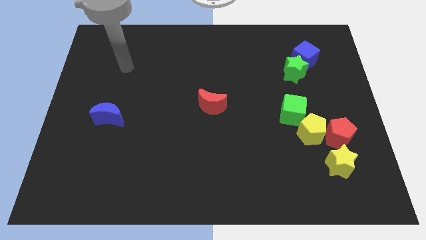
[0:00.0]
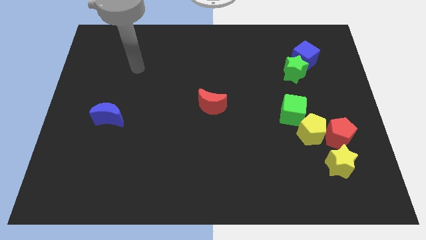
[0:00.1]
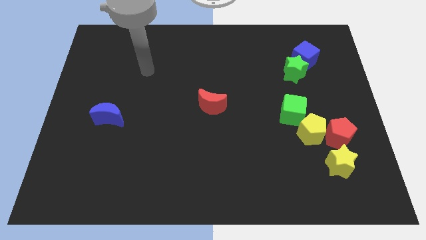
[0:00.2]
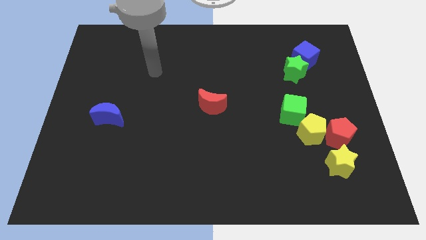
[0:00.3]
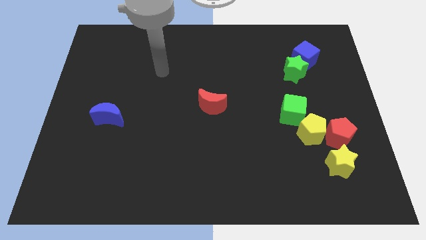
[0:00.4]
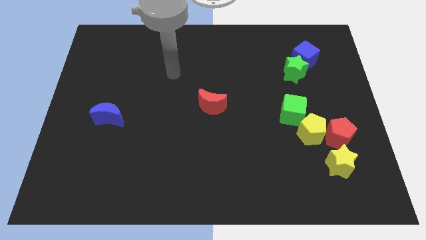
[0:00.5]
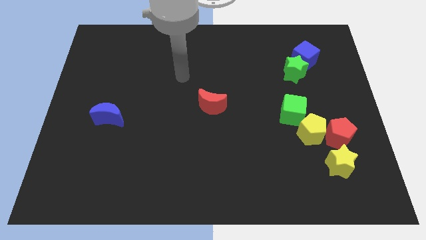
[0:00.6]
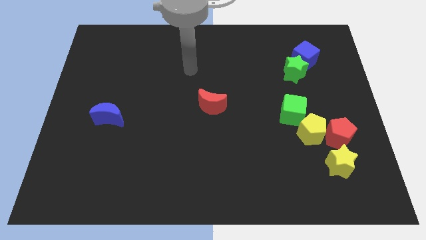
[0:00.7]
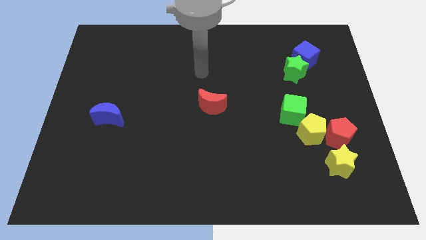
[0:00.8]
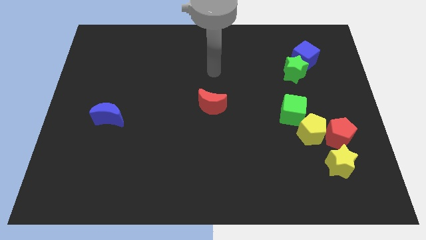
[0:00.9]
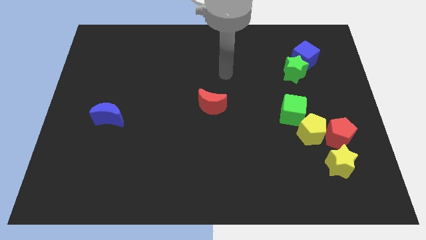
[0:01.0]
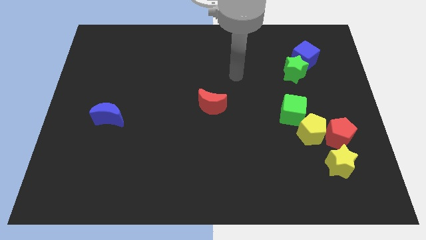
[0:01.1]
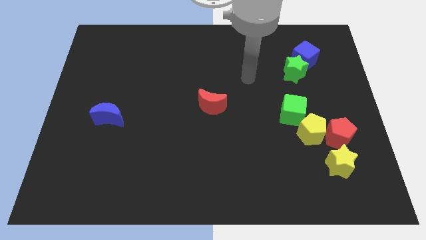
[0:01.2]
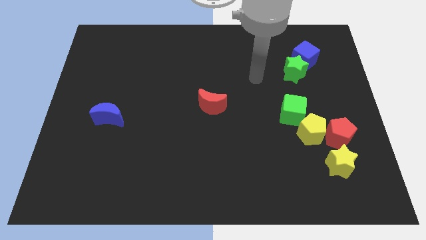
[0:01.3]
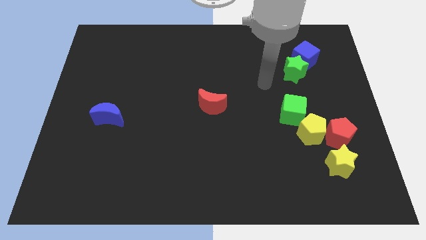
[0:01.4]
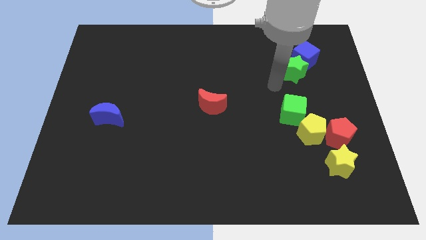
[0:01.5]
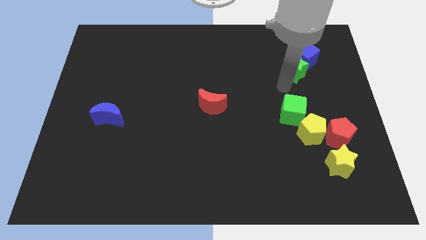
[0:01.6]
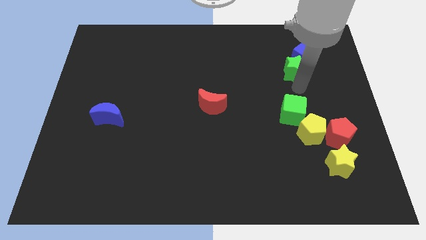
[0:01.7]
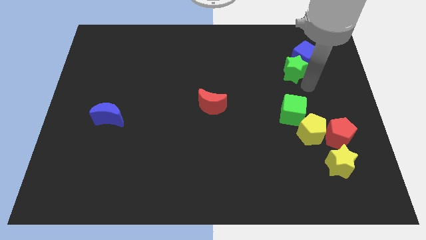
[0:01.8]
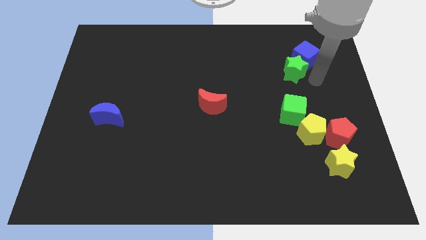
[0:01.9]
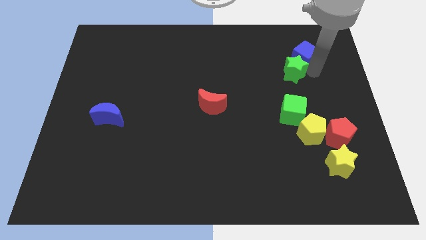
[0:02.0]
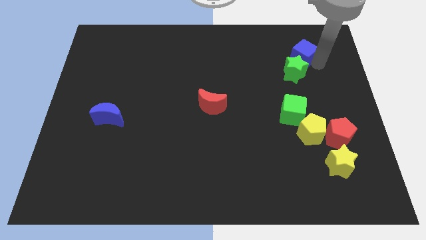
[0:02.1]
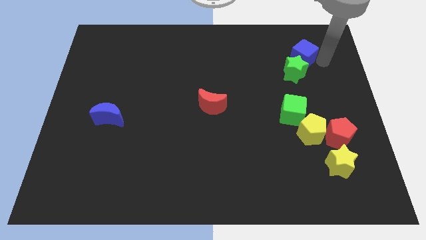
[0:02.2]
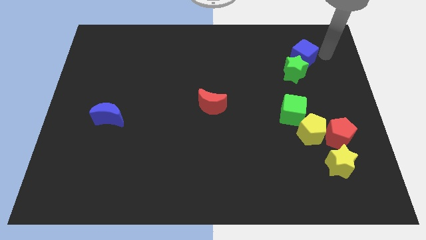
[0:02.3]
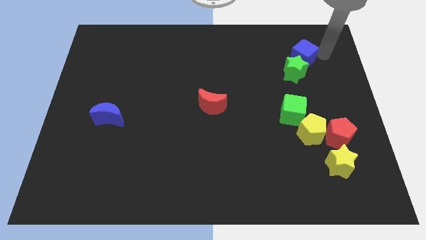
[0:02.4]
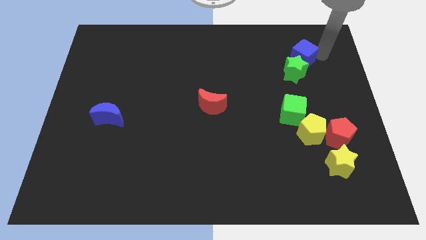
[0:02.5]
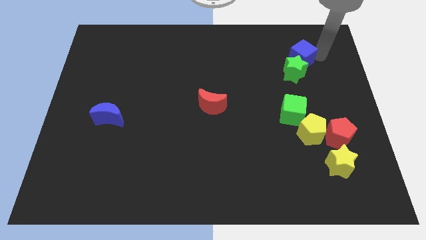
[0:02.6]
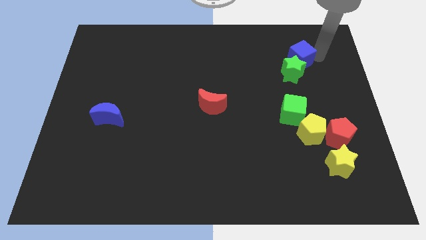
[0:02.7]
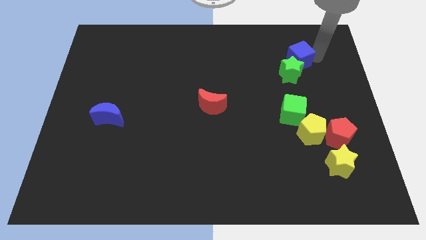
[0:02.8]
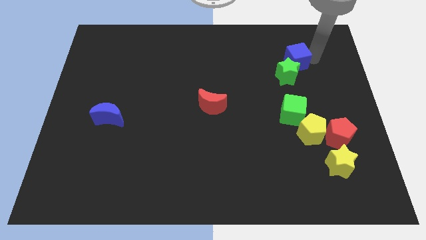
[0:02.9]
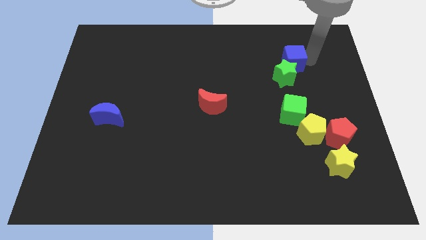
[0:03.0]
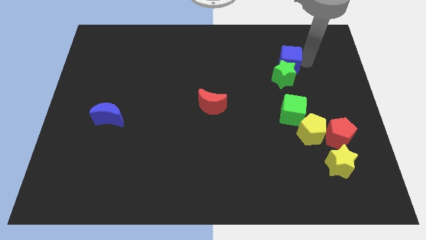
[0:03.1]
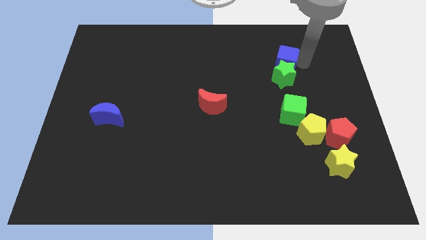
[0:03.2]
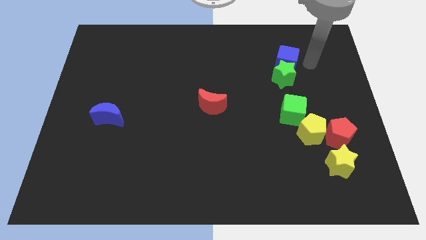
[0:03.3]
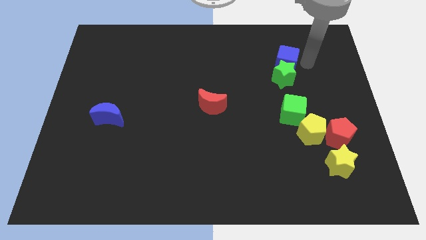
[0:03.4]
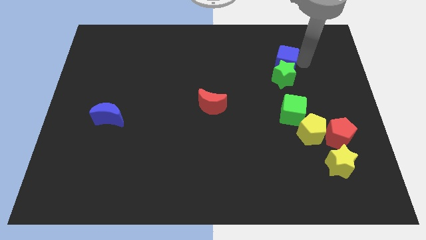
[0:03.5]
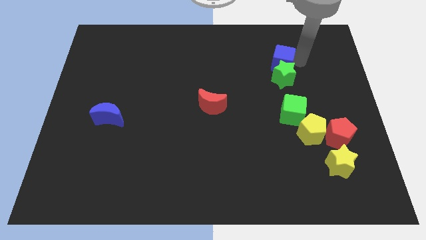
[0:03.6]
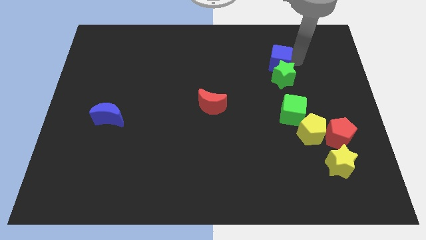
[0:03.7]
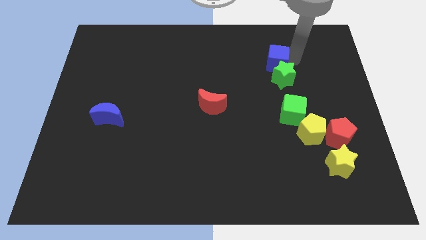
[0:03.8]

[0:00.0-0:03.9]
slightly slide the blue cube to the left

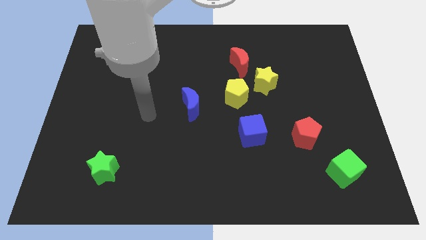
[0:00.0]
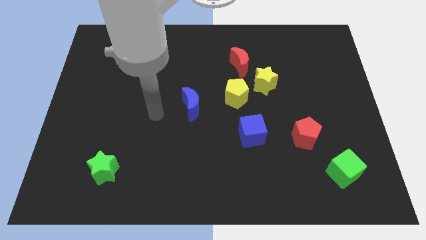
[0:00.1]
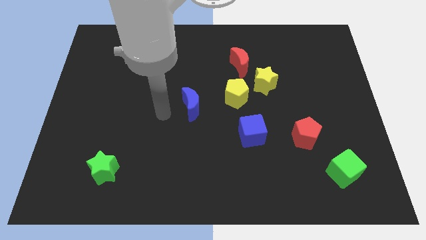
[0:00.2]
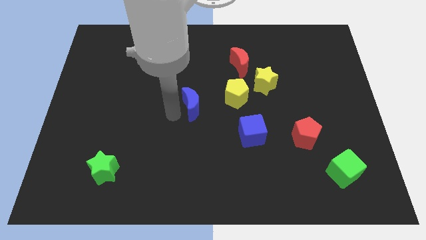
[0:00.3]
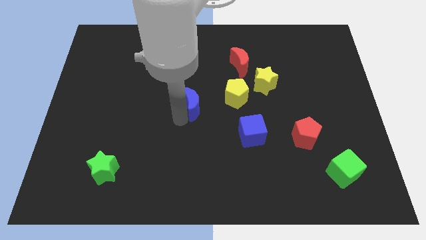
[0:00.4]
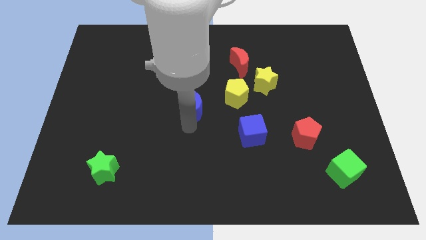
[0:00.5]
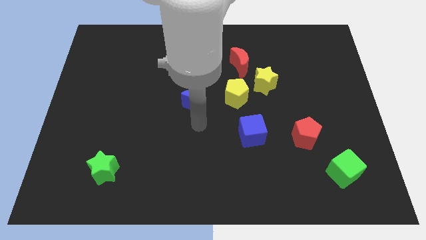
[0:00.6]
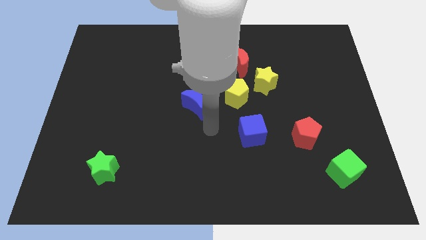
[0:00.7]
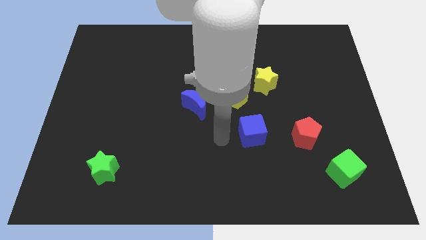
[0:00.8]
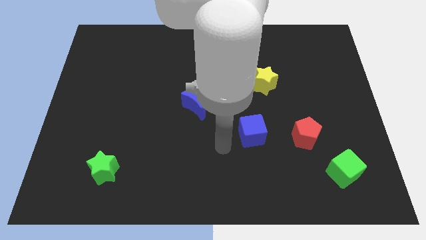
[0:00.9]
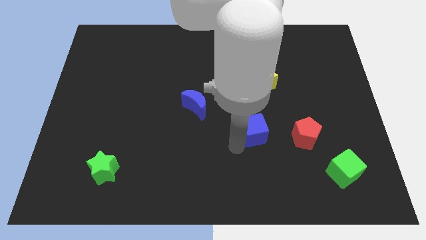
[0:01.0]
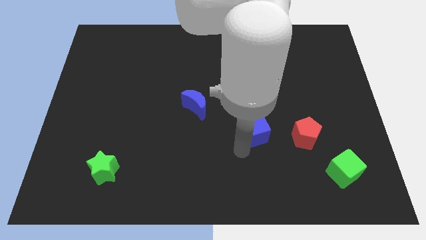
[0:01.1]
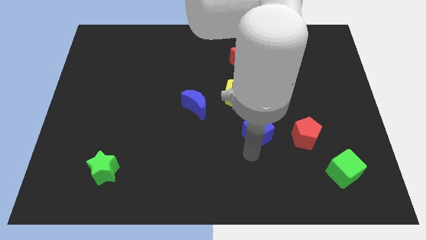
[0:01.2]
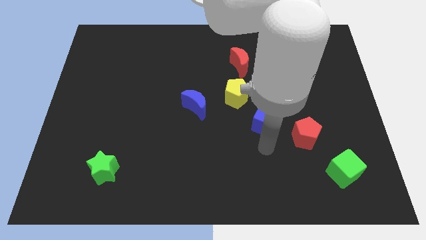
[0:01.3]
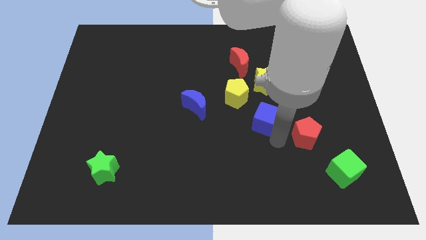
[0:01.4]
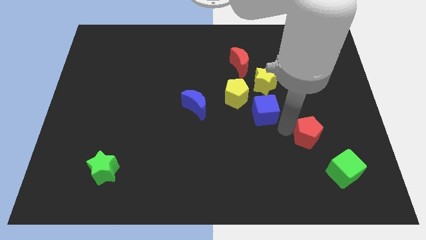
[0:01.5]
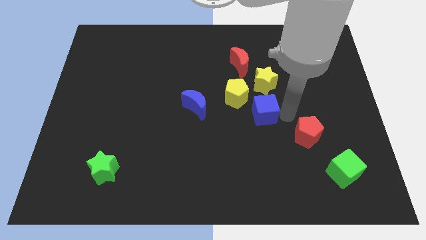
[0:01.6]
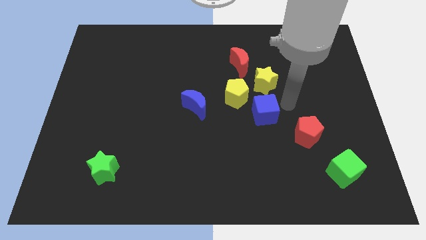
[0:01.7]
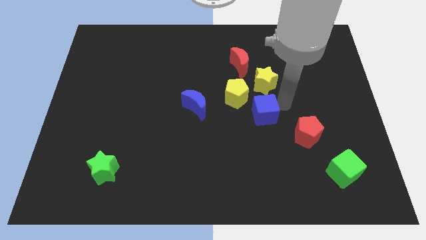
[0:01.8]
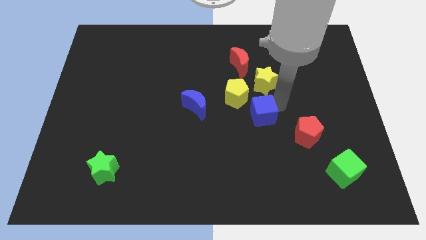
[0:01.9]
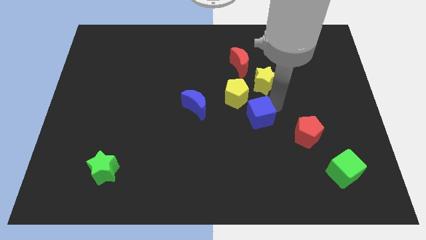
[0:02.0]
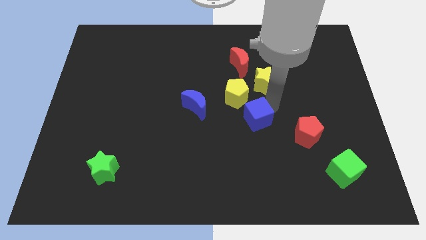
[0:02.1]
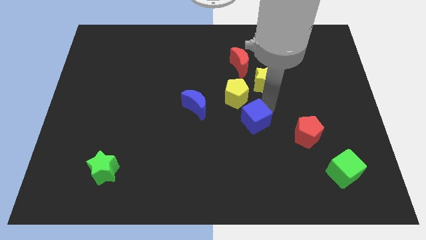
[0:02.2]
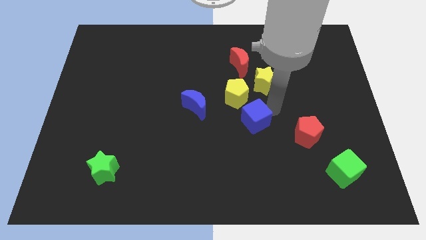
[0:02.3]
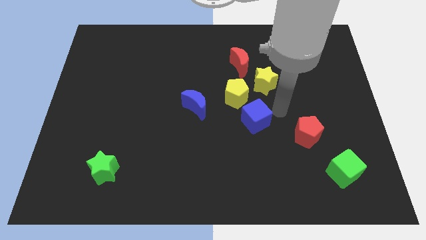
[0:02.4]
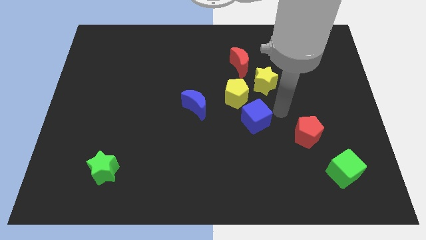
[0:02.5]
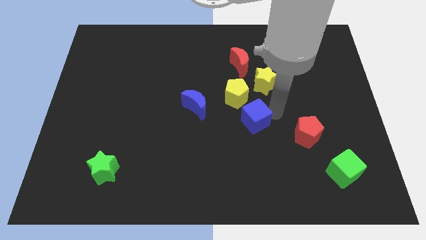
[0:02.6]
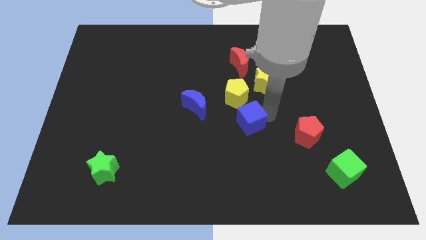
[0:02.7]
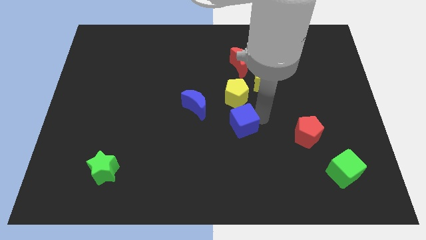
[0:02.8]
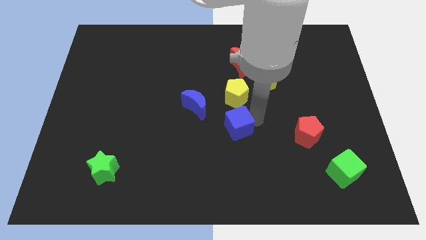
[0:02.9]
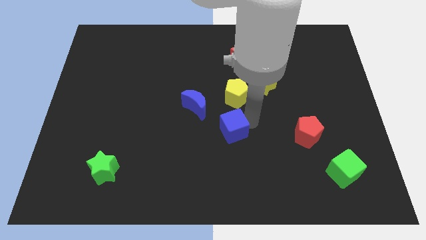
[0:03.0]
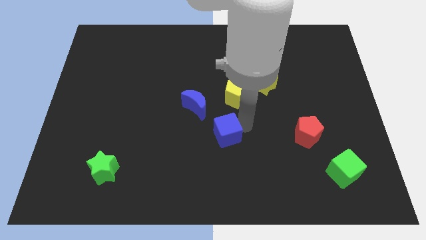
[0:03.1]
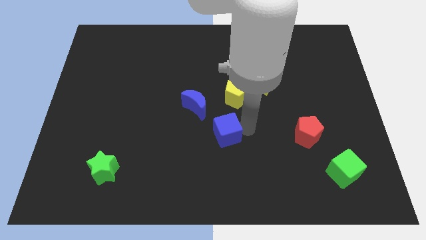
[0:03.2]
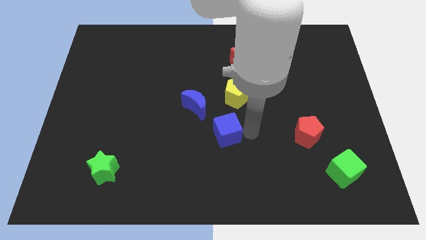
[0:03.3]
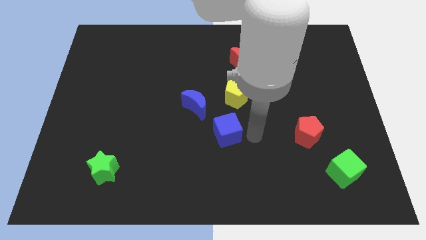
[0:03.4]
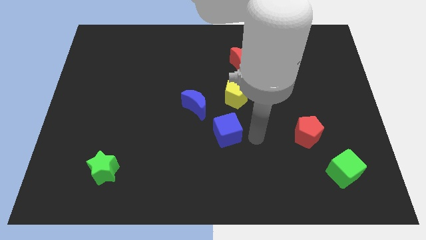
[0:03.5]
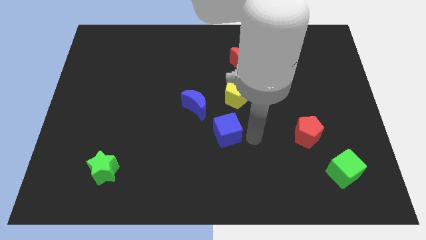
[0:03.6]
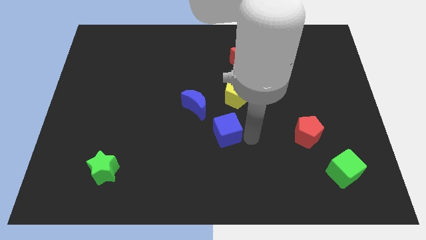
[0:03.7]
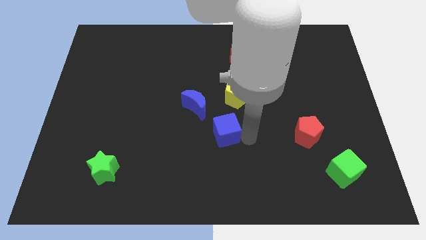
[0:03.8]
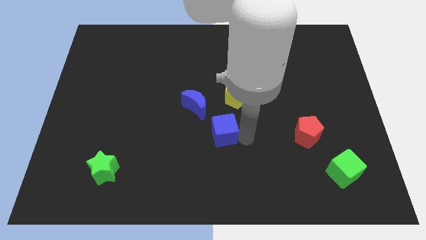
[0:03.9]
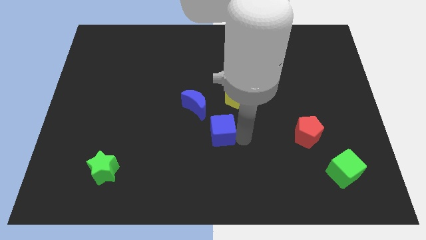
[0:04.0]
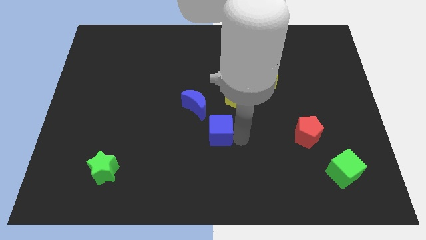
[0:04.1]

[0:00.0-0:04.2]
slide the blue cube a little left
